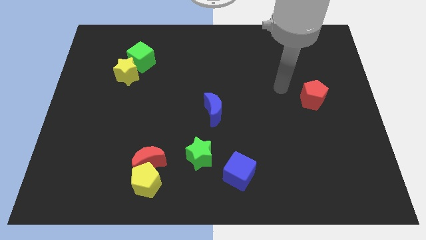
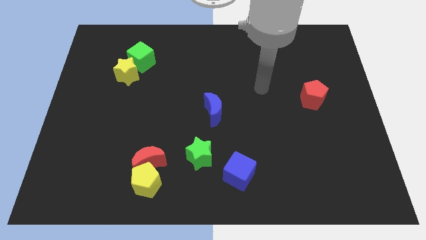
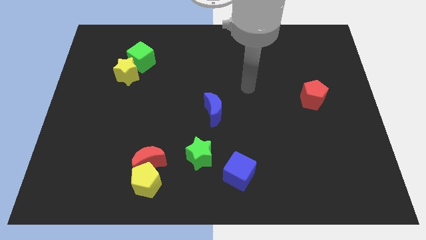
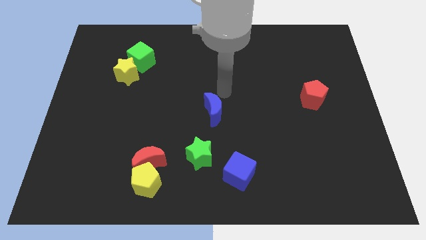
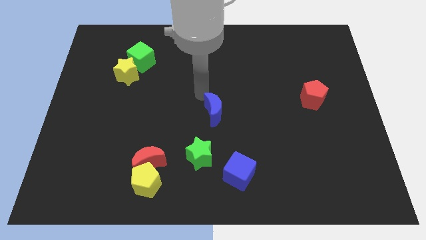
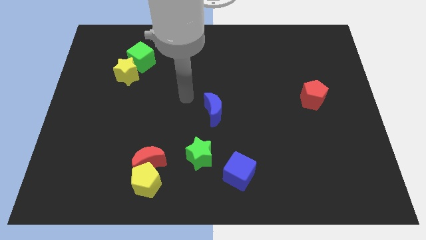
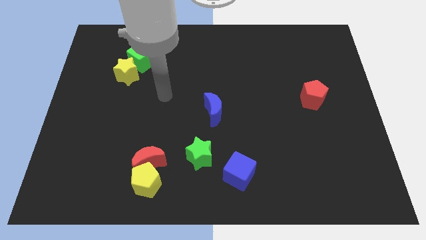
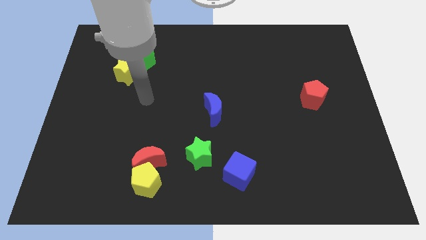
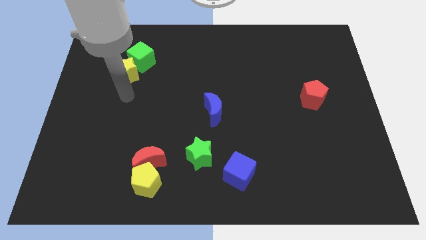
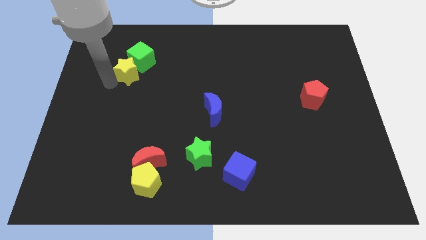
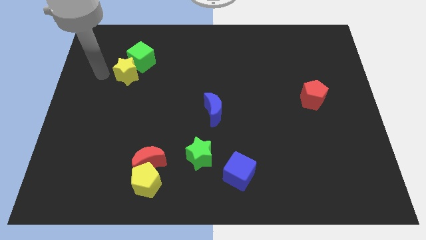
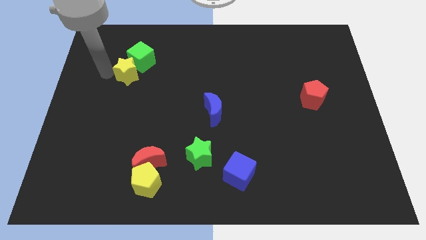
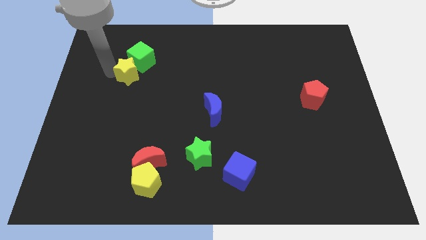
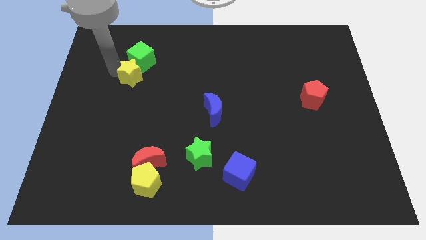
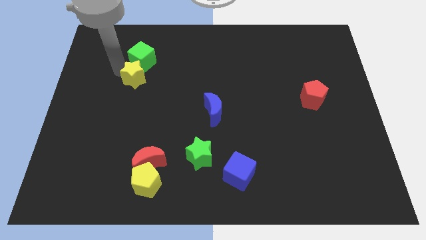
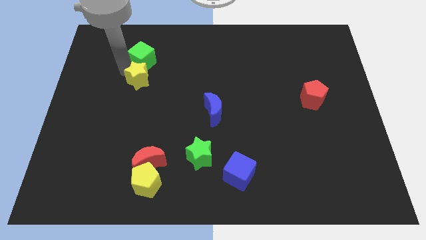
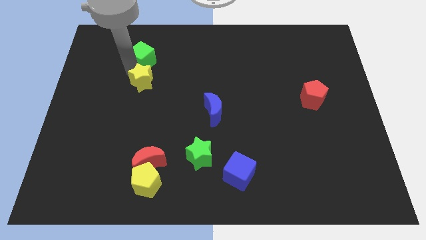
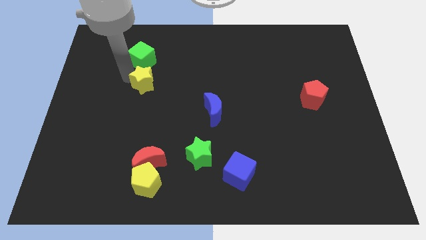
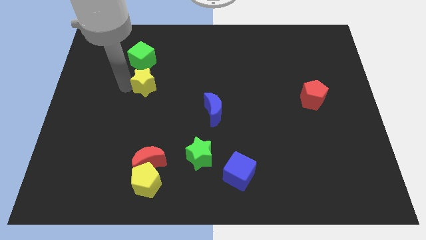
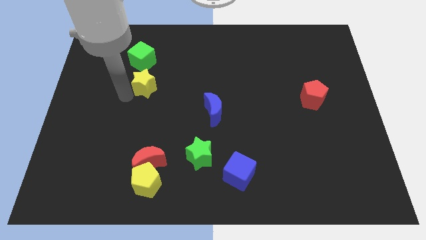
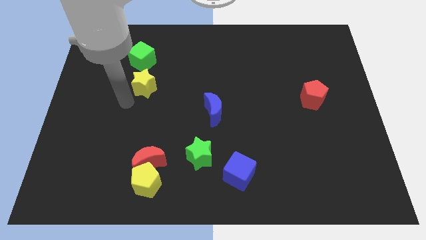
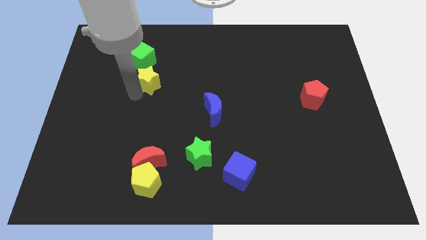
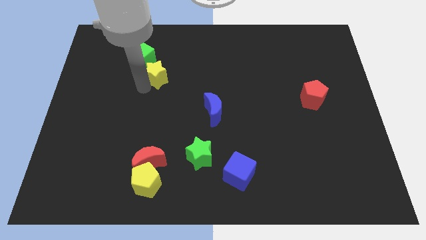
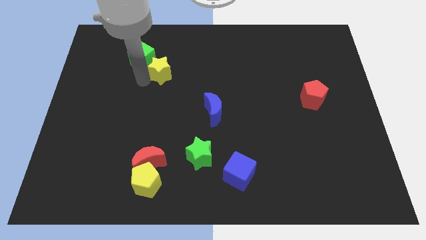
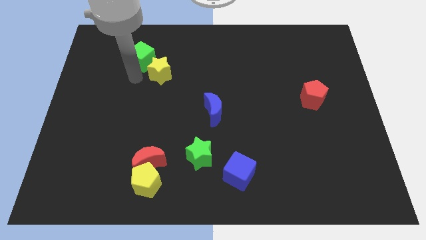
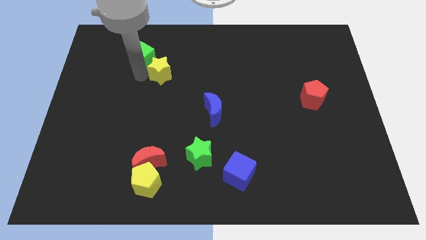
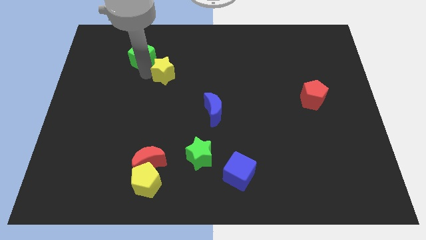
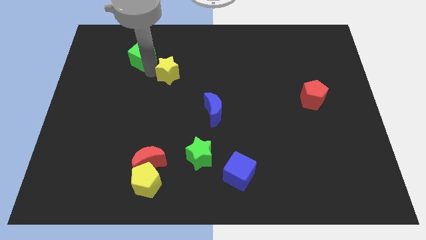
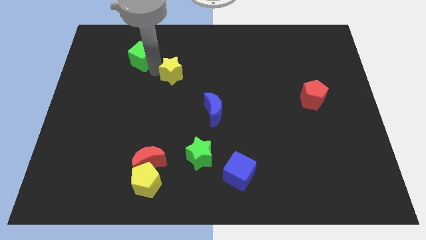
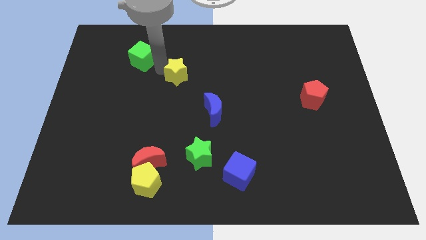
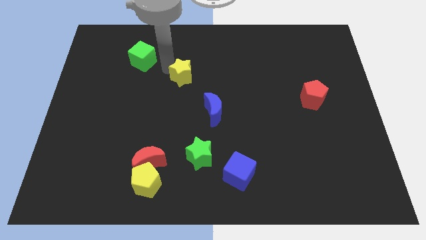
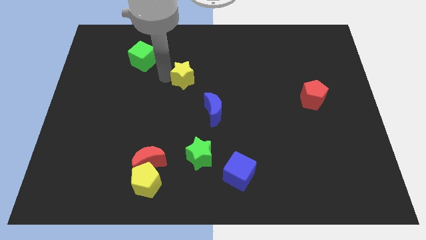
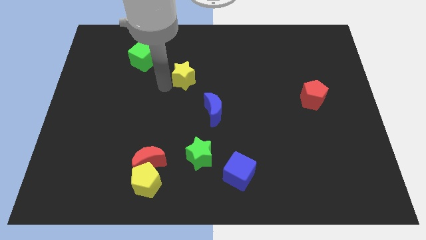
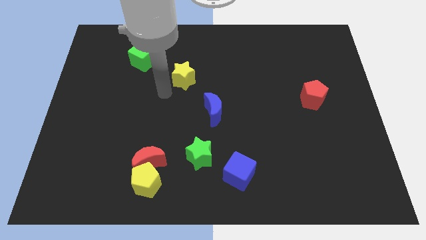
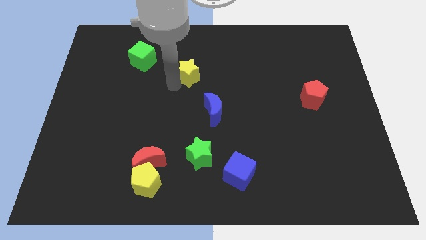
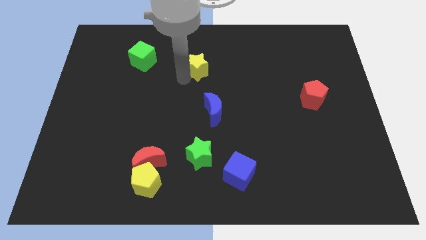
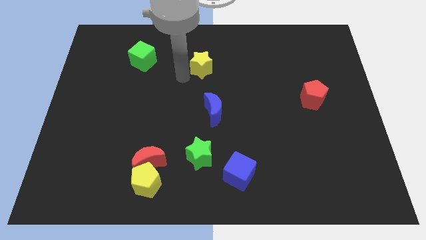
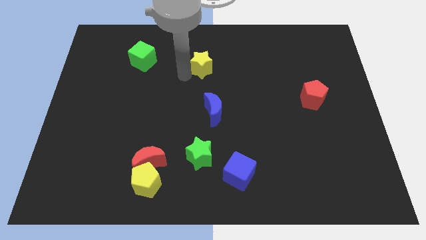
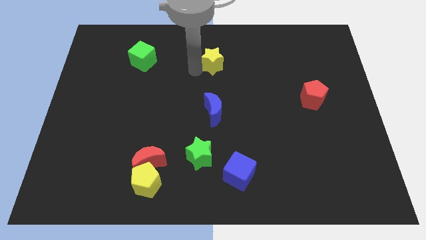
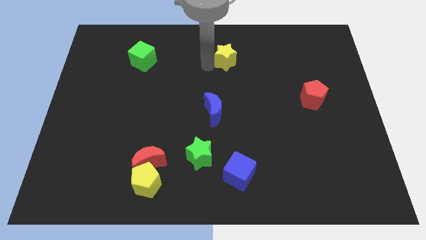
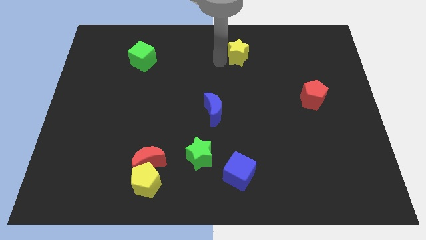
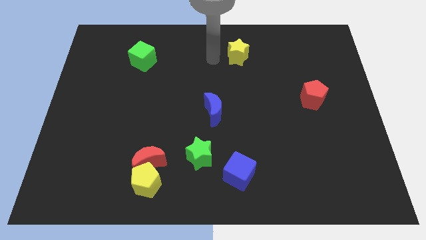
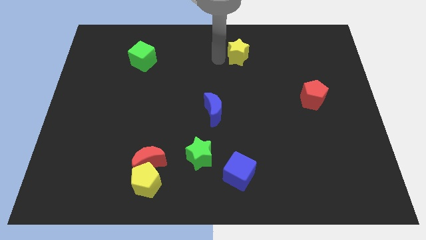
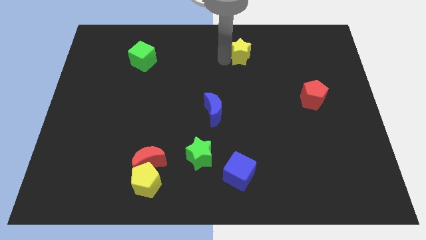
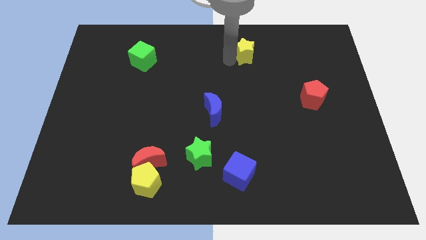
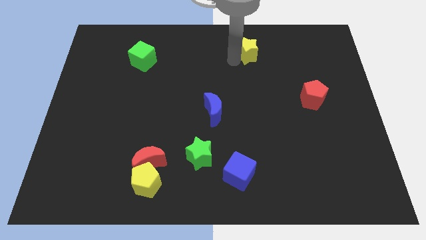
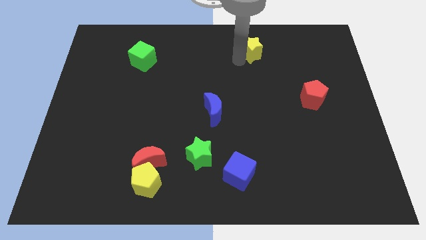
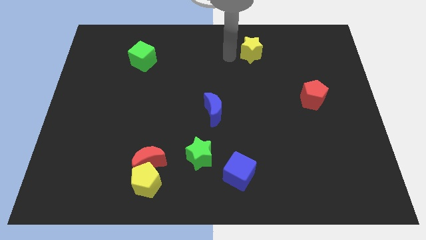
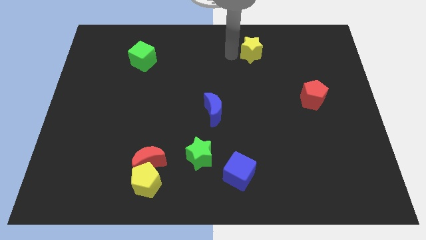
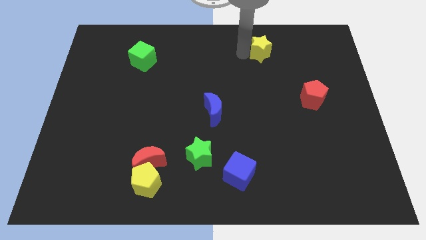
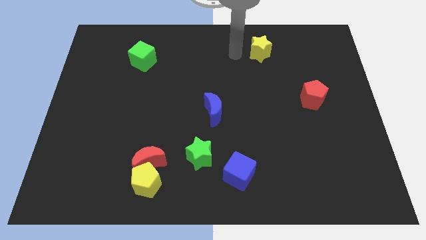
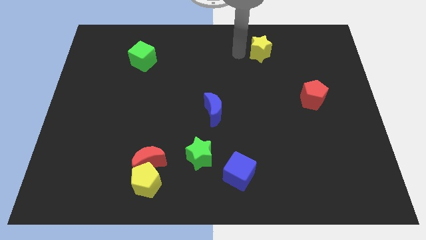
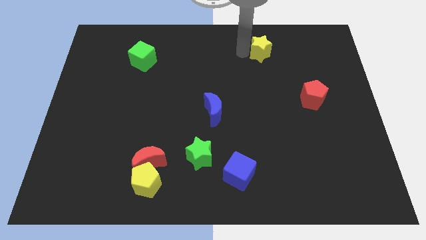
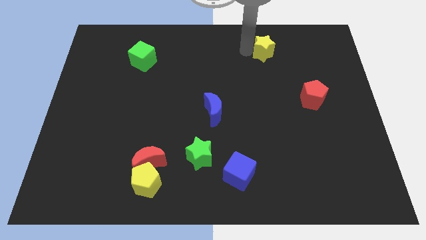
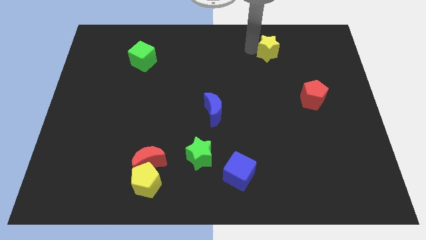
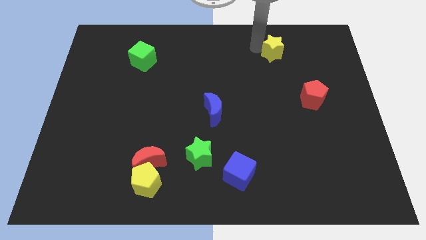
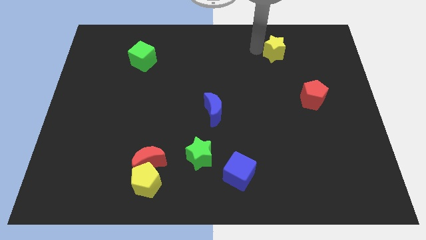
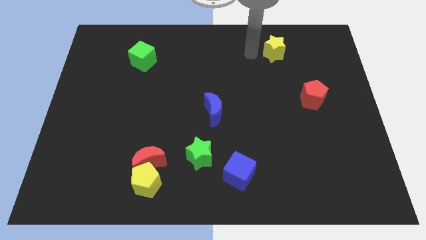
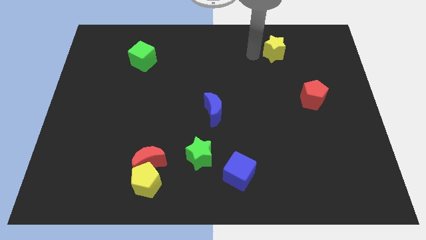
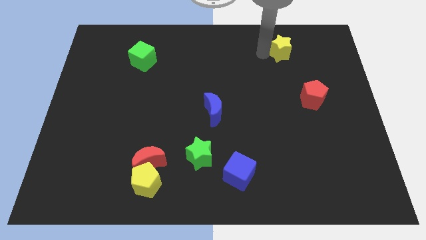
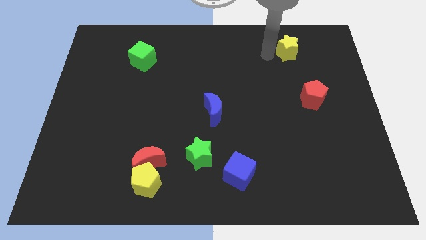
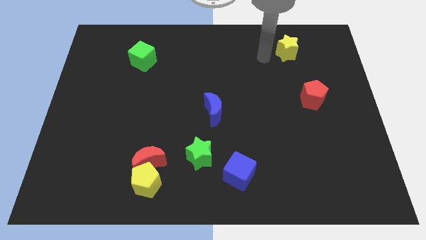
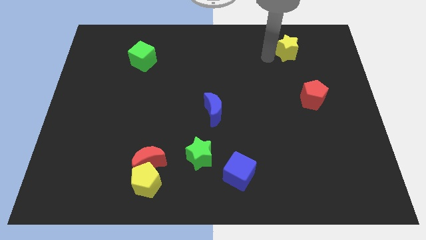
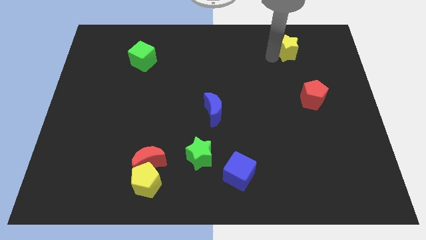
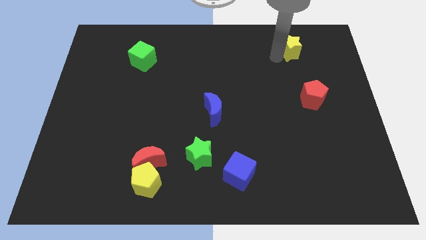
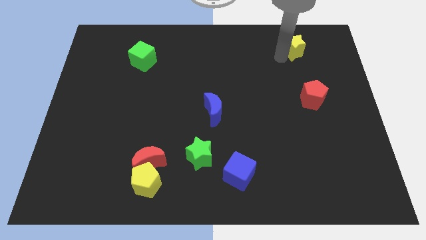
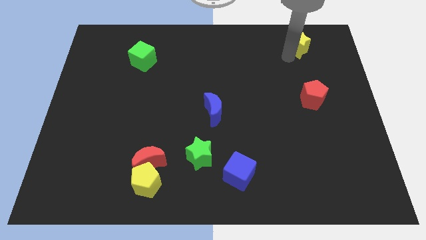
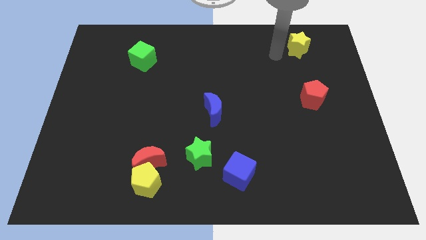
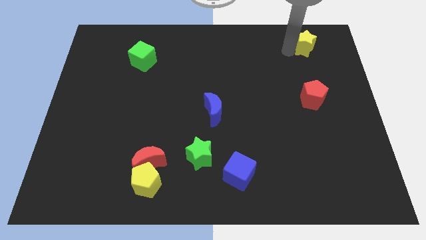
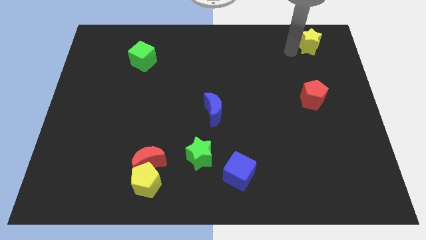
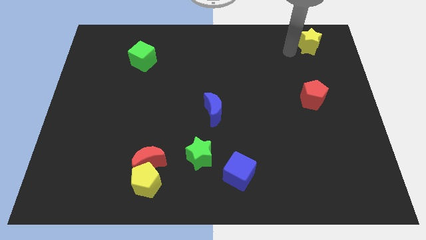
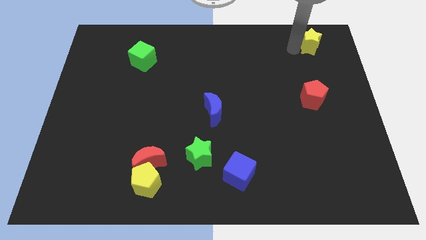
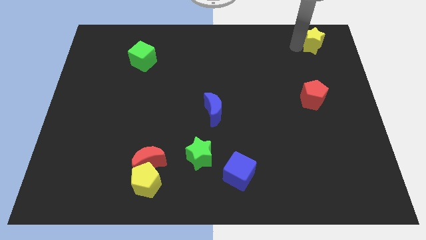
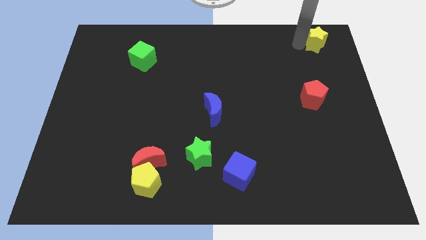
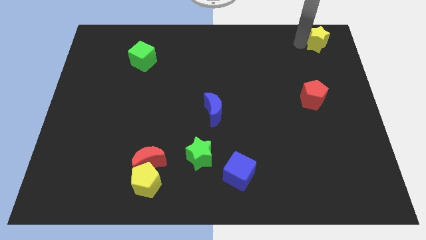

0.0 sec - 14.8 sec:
push the yellow star to the top right of the board
